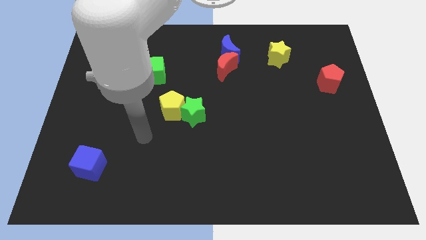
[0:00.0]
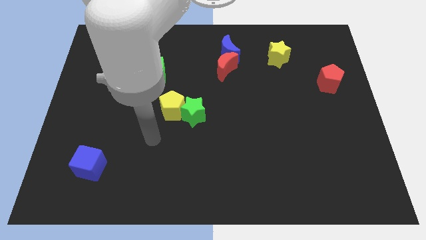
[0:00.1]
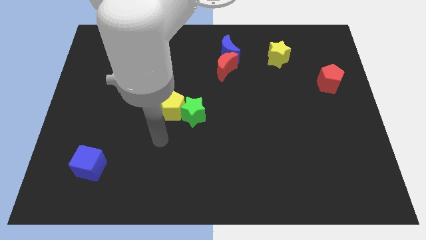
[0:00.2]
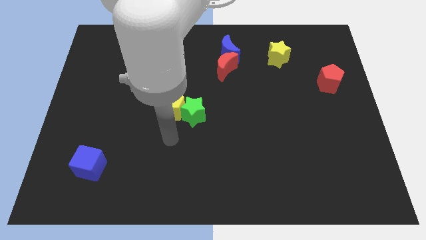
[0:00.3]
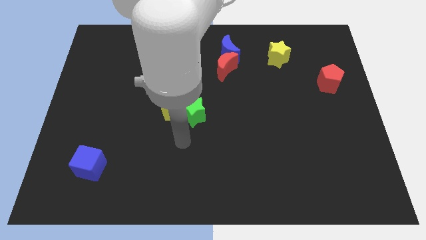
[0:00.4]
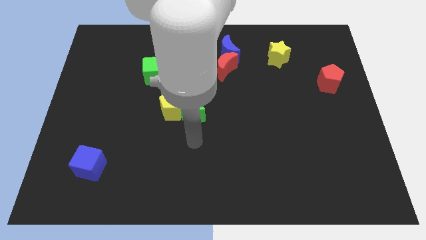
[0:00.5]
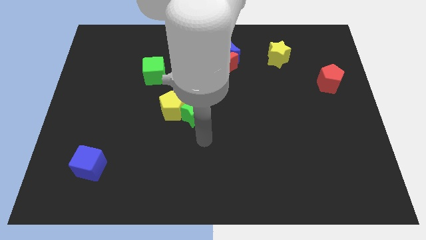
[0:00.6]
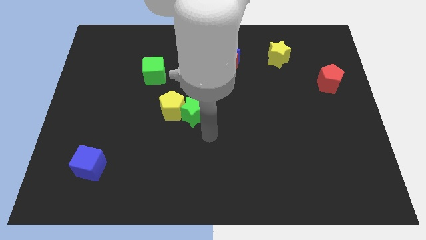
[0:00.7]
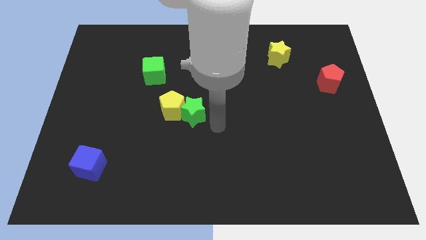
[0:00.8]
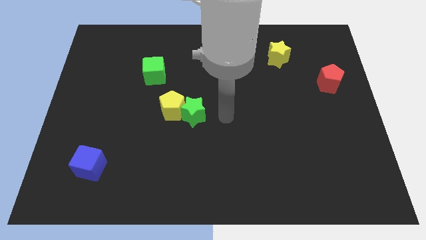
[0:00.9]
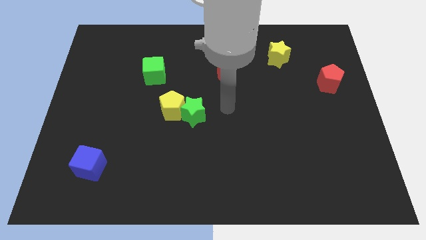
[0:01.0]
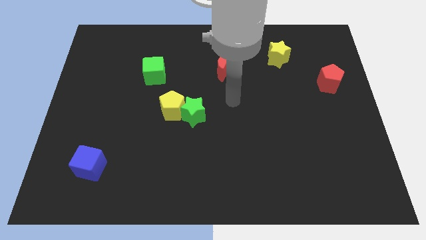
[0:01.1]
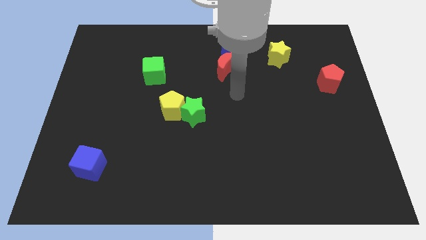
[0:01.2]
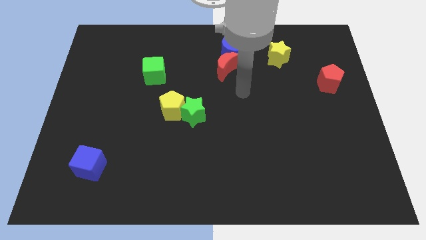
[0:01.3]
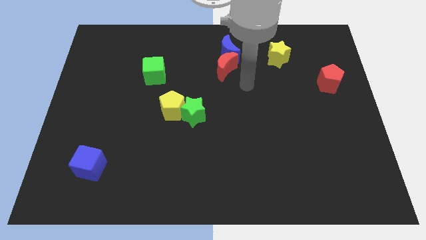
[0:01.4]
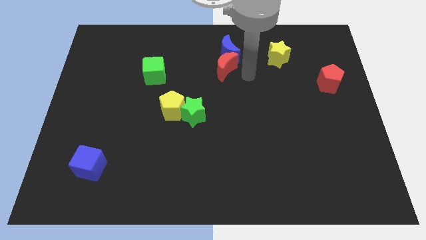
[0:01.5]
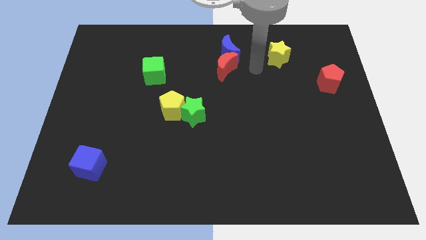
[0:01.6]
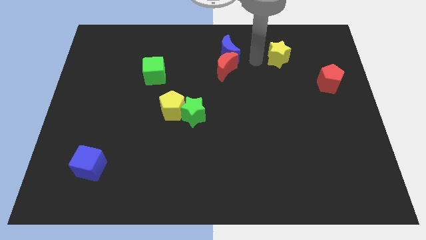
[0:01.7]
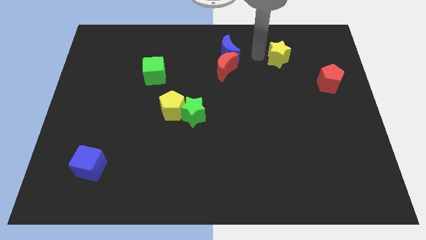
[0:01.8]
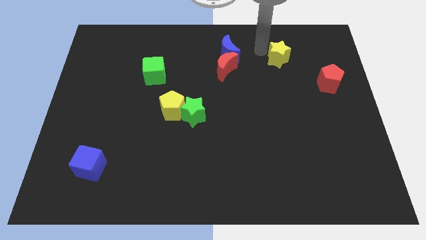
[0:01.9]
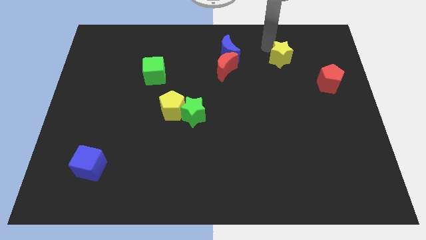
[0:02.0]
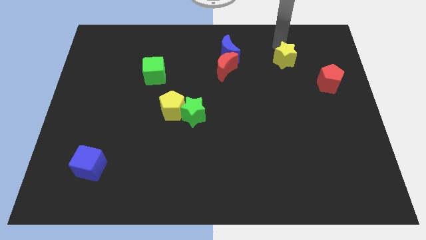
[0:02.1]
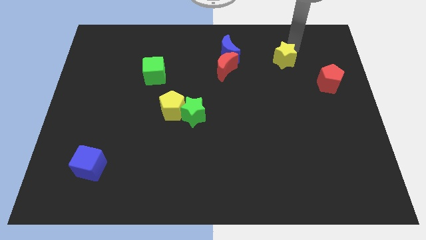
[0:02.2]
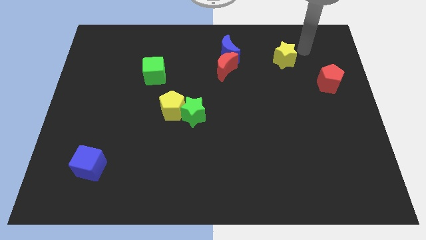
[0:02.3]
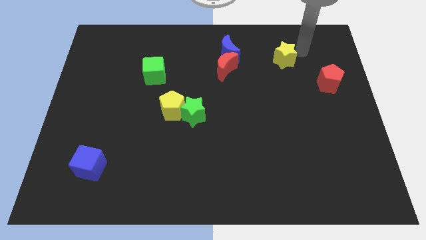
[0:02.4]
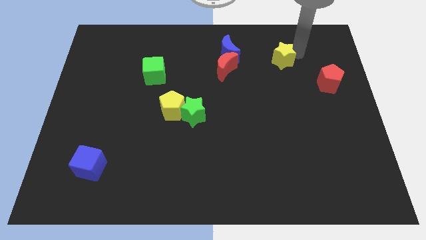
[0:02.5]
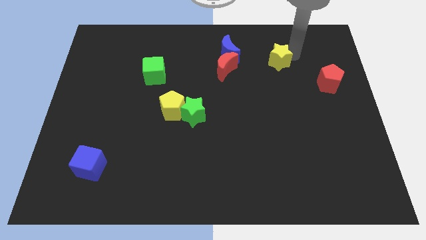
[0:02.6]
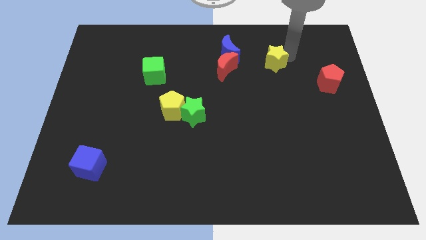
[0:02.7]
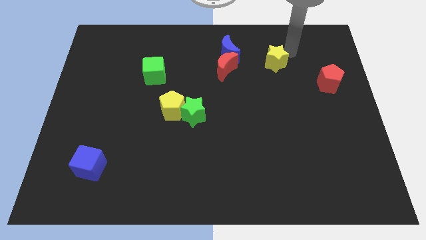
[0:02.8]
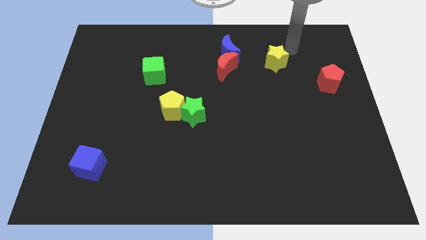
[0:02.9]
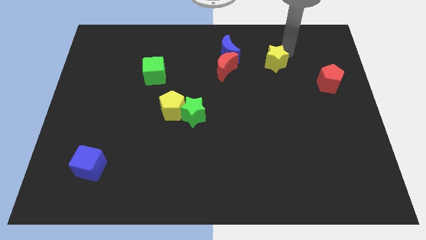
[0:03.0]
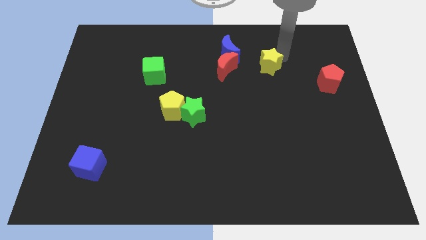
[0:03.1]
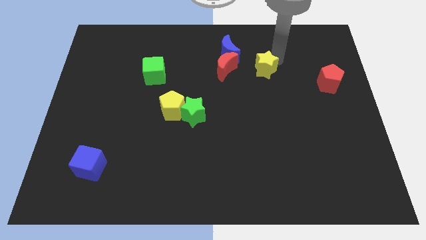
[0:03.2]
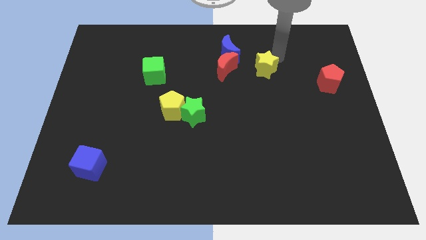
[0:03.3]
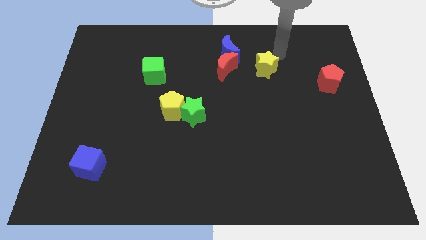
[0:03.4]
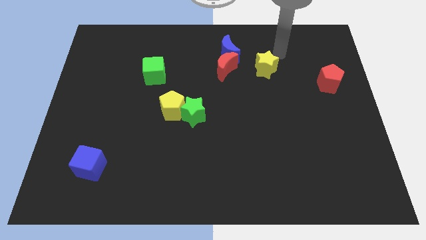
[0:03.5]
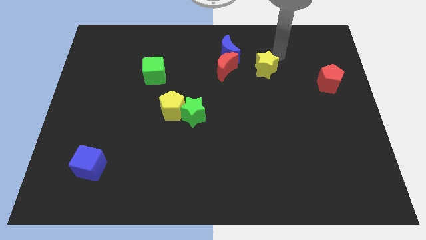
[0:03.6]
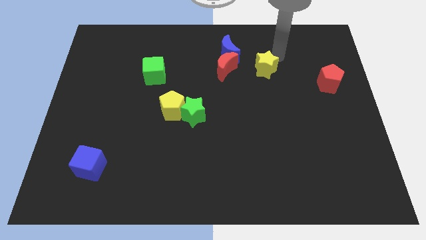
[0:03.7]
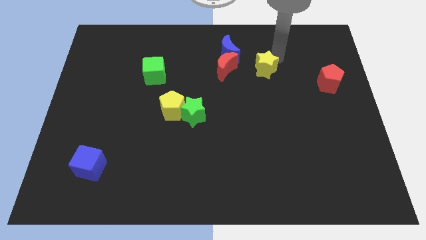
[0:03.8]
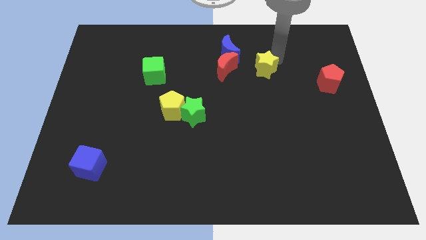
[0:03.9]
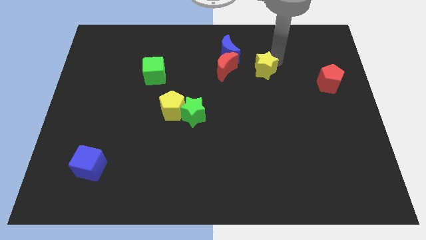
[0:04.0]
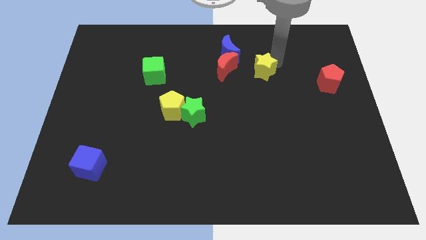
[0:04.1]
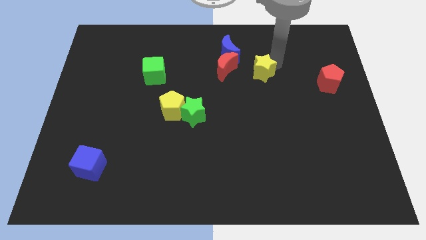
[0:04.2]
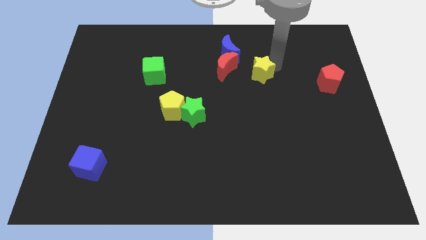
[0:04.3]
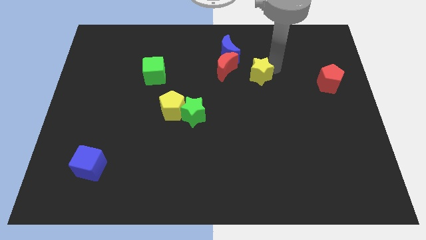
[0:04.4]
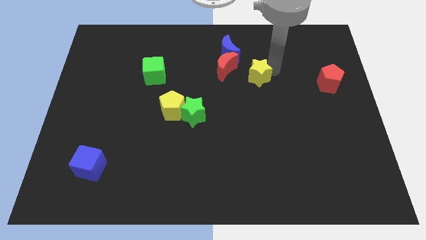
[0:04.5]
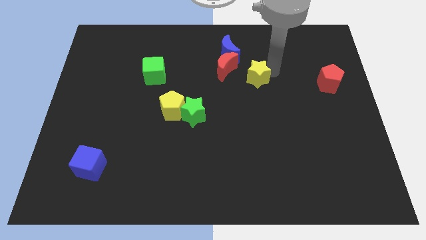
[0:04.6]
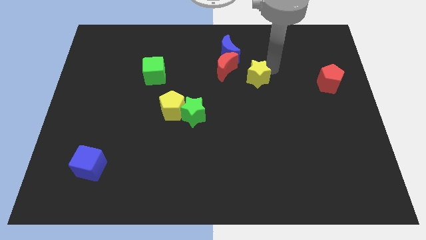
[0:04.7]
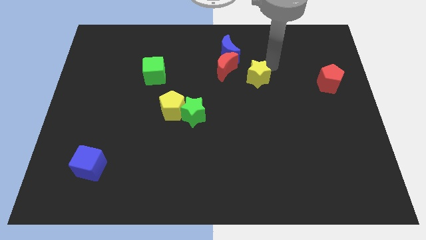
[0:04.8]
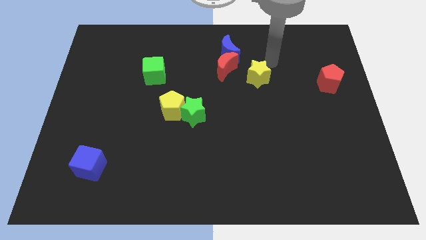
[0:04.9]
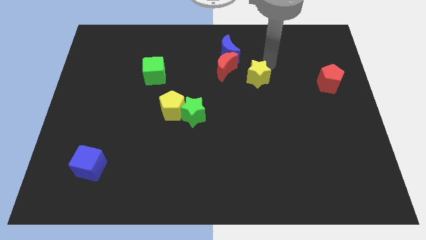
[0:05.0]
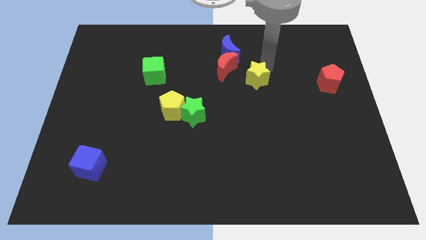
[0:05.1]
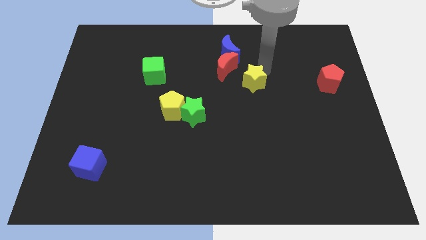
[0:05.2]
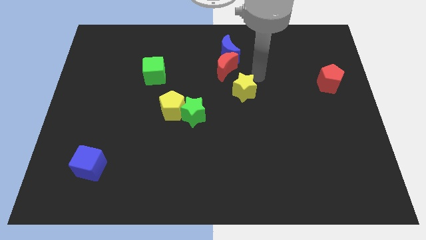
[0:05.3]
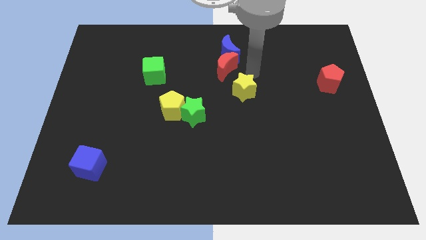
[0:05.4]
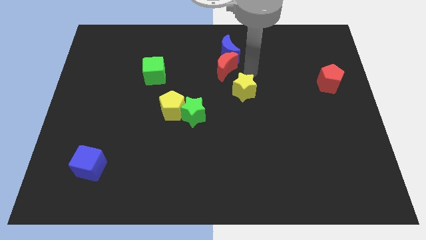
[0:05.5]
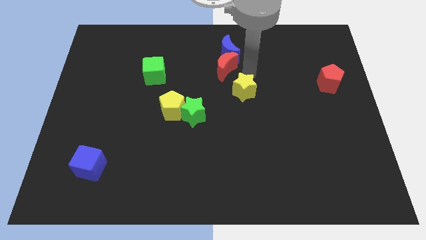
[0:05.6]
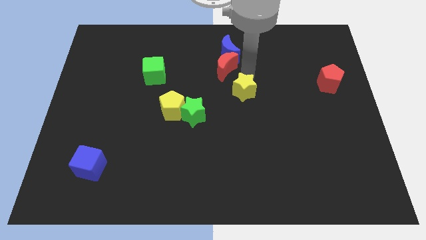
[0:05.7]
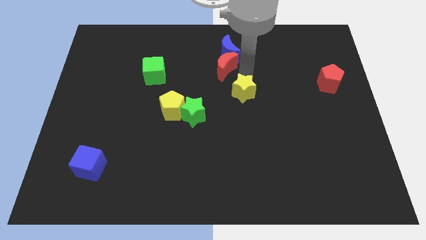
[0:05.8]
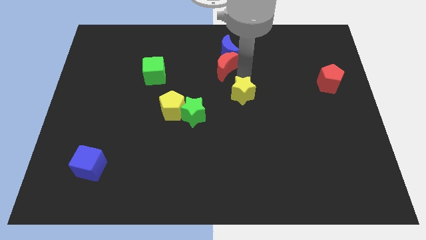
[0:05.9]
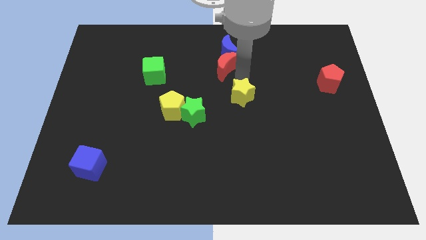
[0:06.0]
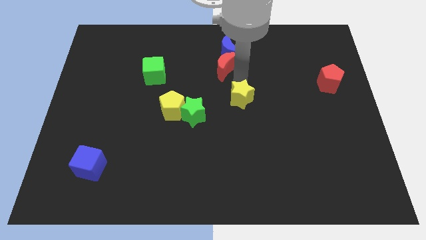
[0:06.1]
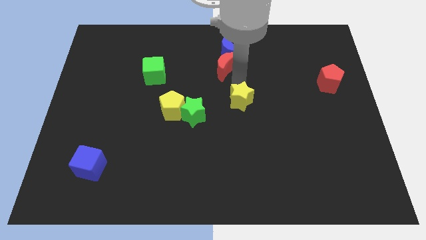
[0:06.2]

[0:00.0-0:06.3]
put the yellow star right of the green star

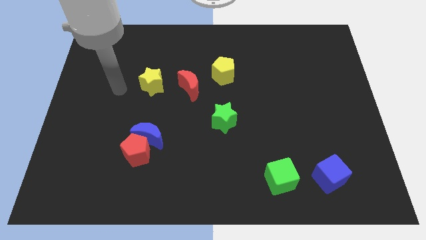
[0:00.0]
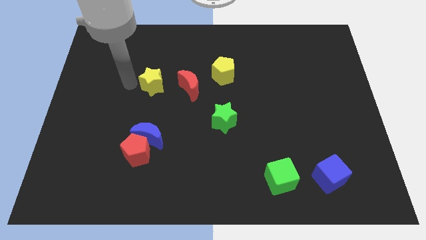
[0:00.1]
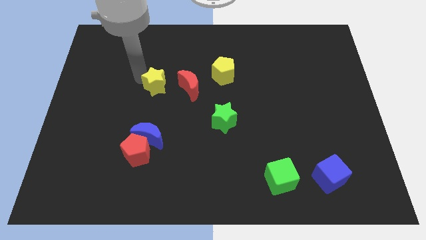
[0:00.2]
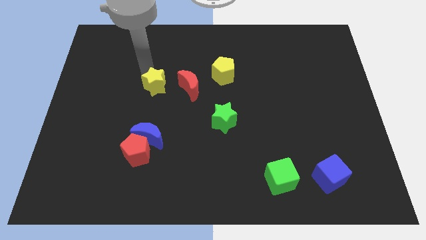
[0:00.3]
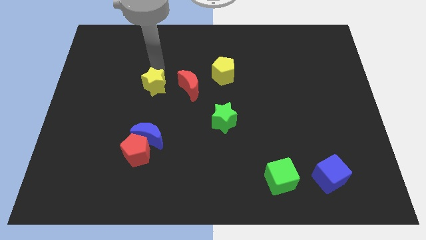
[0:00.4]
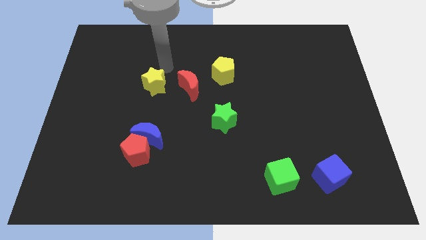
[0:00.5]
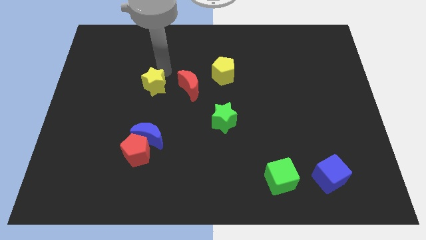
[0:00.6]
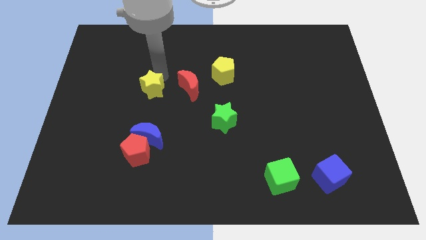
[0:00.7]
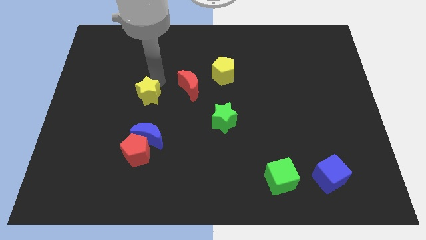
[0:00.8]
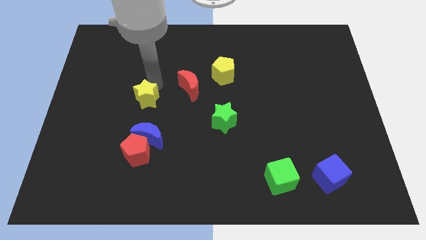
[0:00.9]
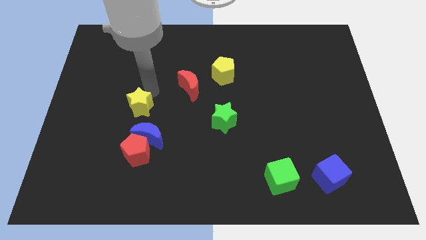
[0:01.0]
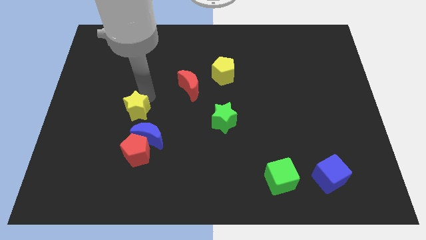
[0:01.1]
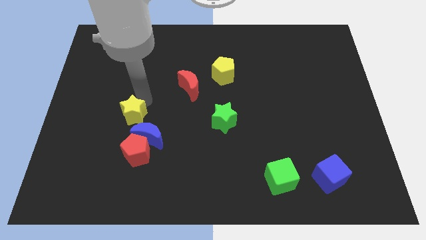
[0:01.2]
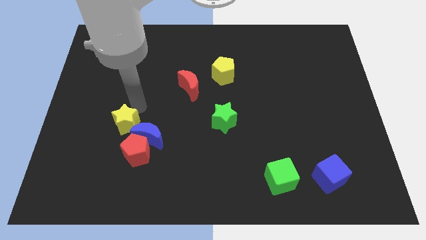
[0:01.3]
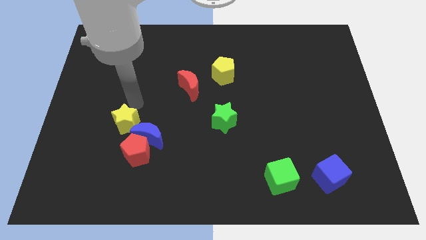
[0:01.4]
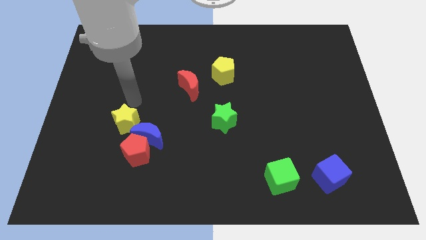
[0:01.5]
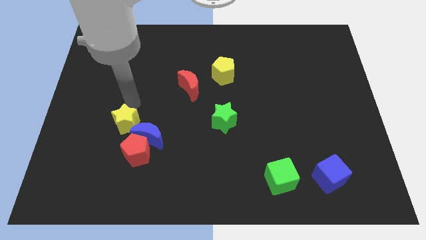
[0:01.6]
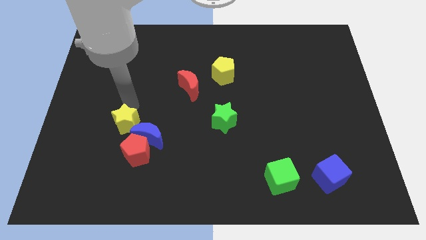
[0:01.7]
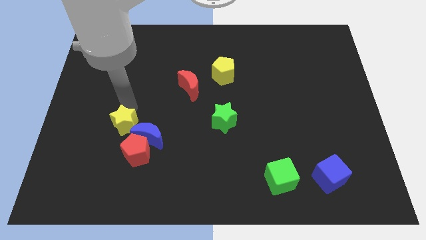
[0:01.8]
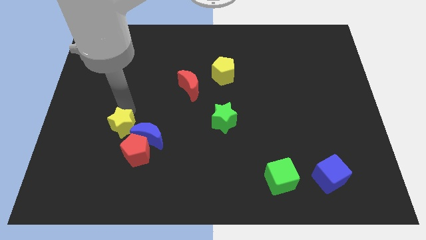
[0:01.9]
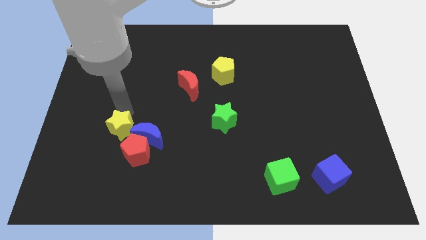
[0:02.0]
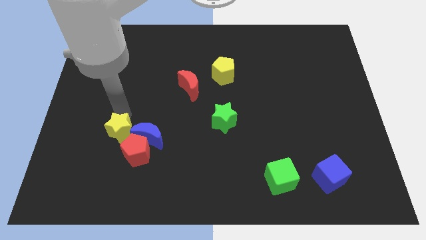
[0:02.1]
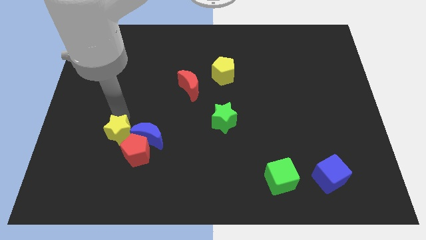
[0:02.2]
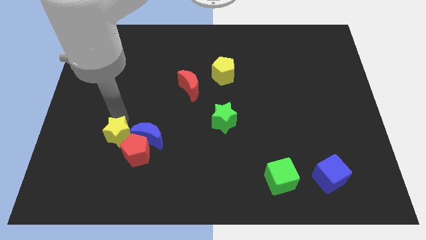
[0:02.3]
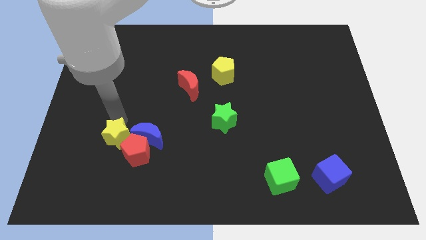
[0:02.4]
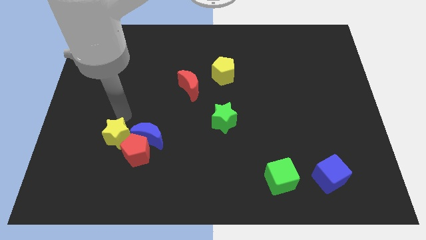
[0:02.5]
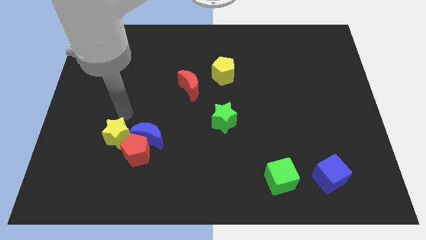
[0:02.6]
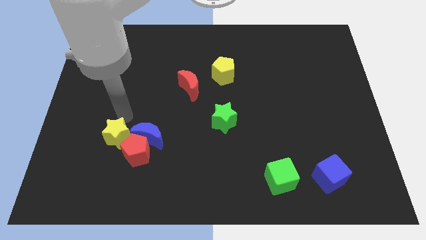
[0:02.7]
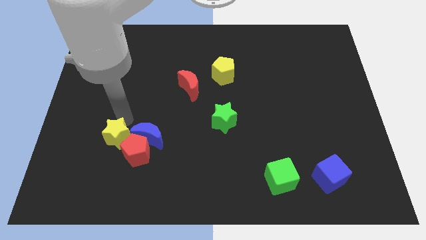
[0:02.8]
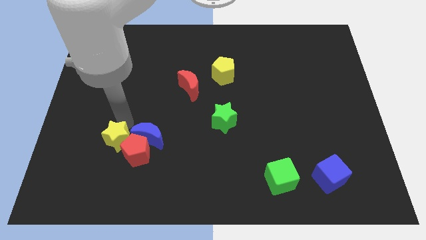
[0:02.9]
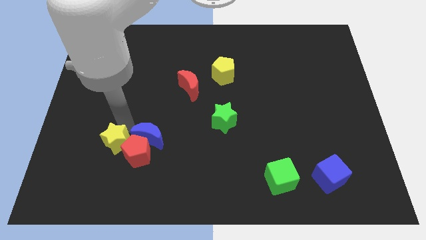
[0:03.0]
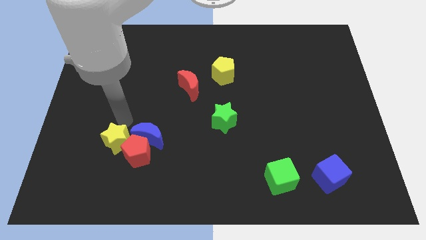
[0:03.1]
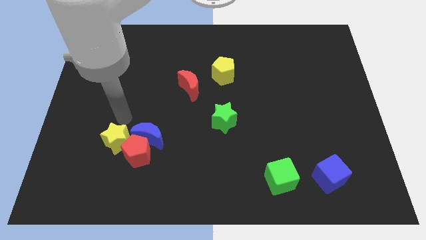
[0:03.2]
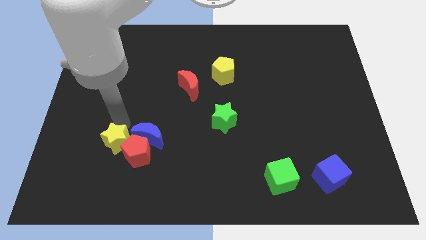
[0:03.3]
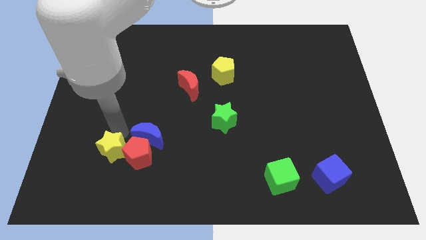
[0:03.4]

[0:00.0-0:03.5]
move the yellow star to the bottom left of the red pentagon
